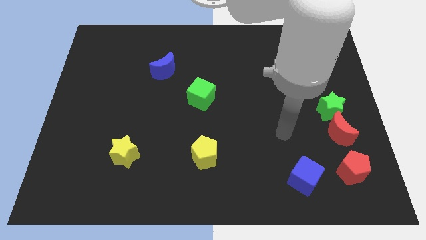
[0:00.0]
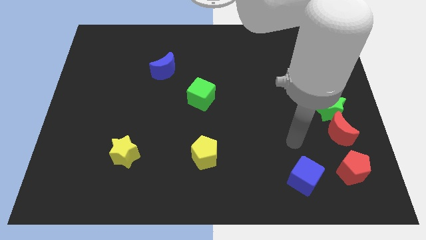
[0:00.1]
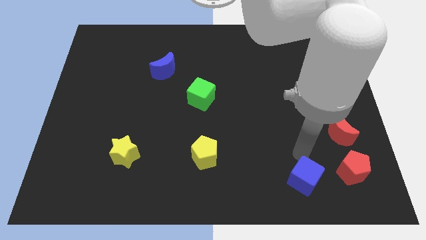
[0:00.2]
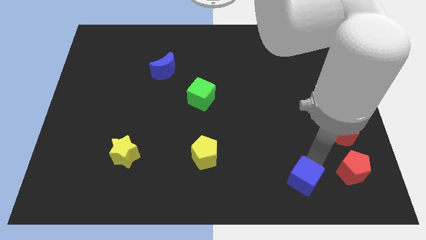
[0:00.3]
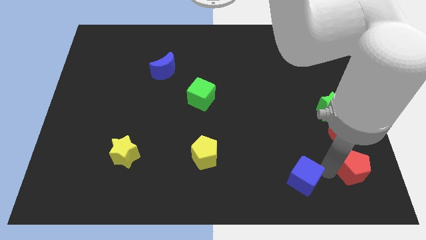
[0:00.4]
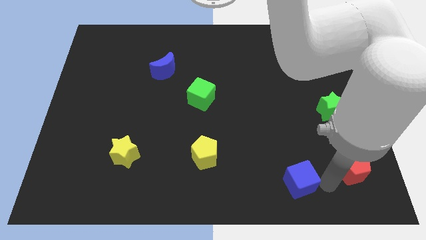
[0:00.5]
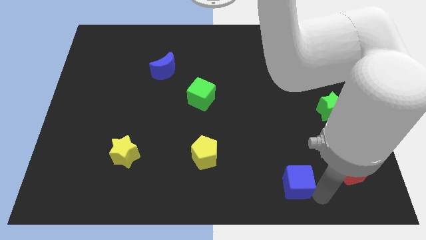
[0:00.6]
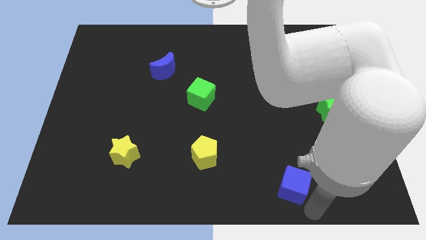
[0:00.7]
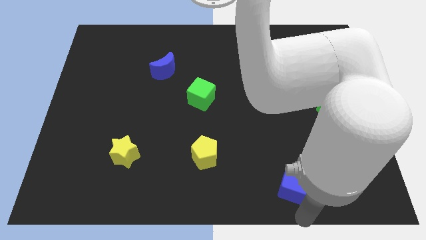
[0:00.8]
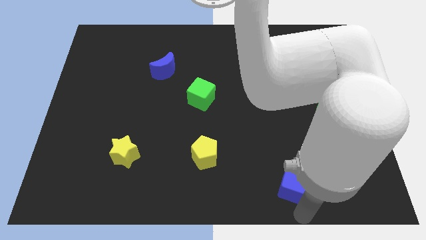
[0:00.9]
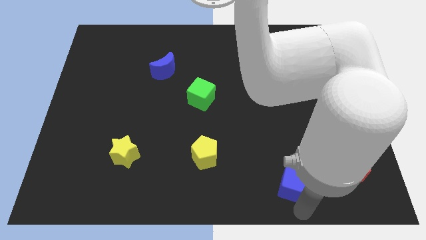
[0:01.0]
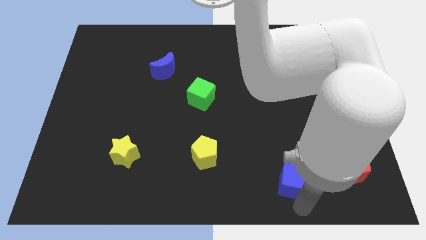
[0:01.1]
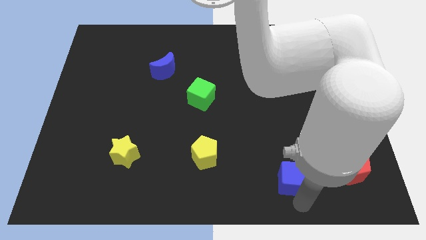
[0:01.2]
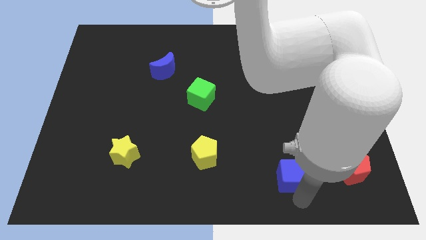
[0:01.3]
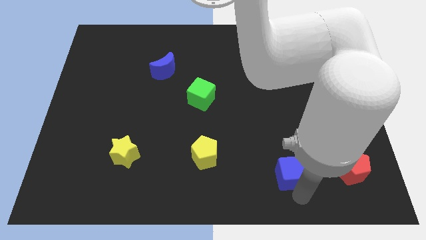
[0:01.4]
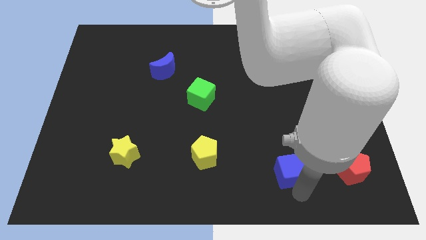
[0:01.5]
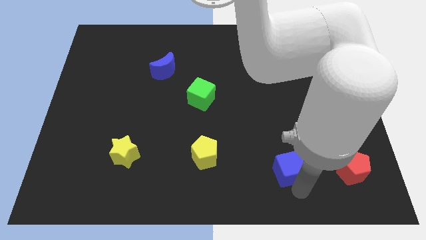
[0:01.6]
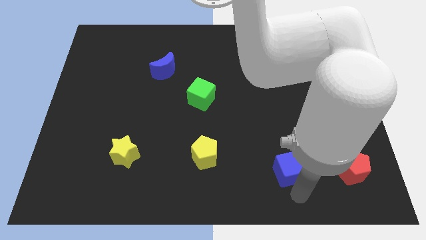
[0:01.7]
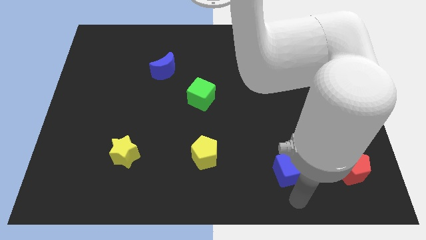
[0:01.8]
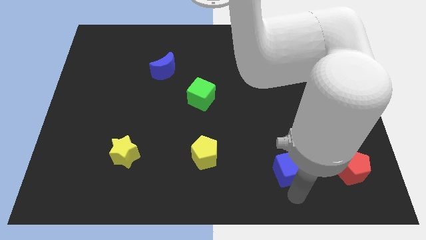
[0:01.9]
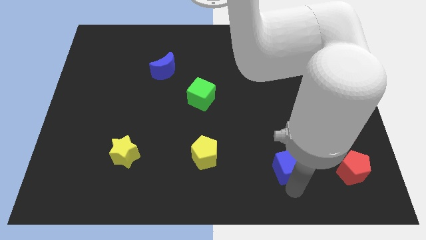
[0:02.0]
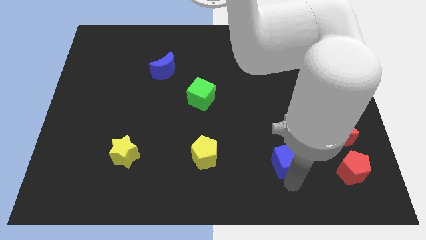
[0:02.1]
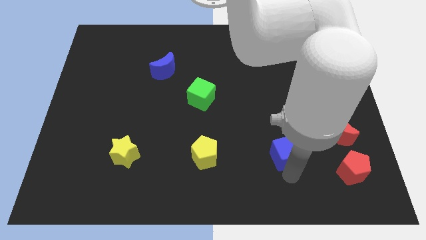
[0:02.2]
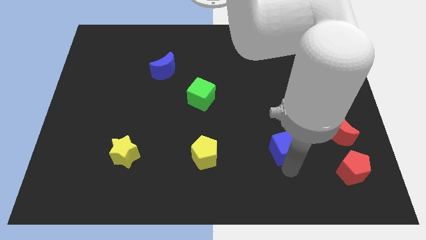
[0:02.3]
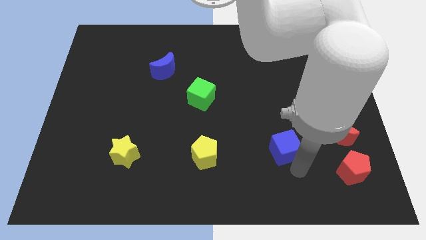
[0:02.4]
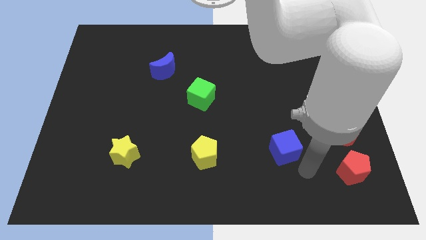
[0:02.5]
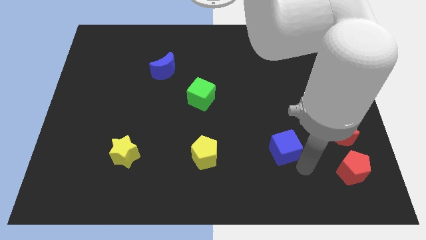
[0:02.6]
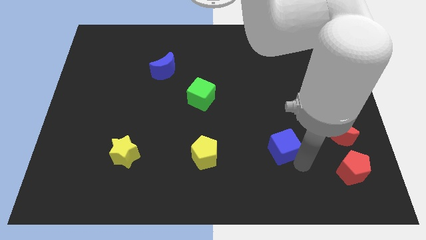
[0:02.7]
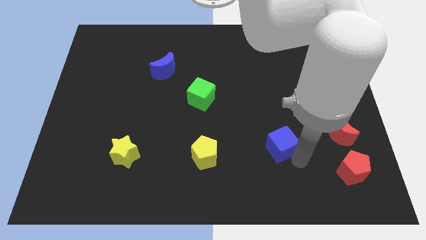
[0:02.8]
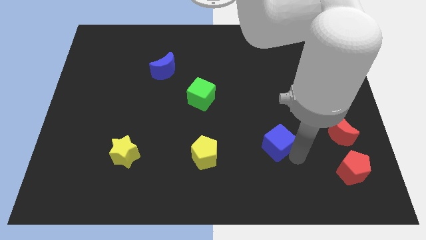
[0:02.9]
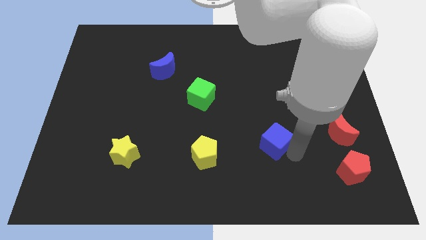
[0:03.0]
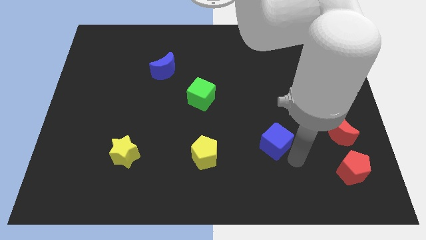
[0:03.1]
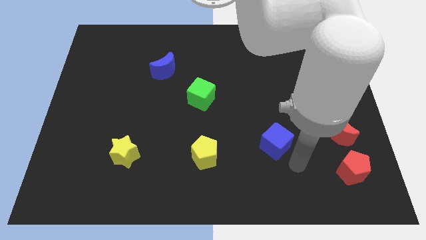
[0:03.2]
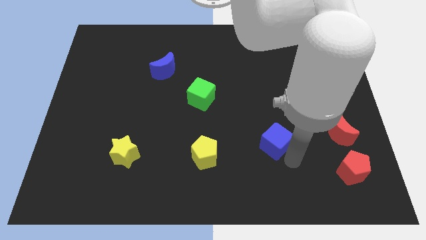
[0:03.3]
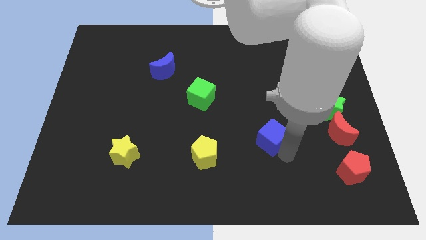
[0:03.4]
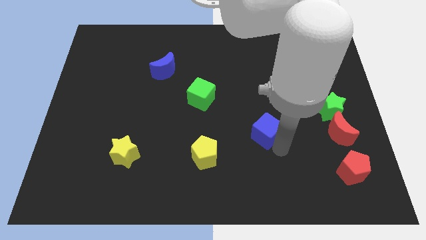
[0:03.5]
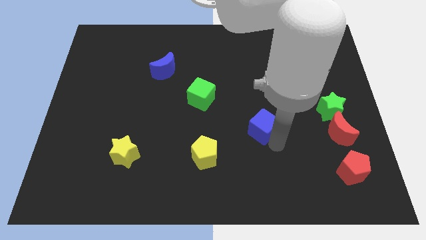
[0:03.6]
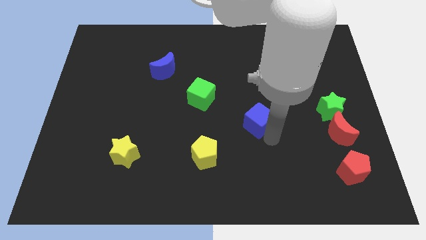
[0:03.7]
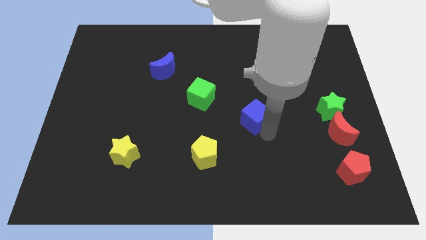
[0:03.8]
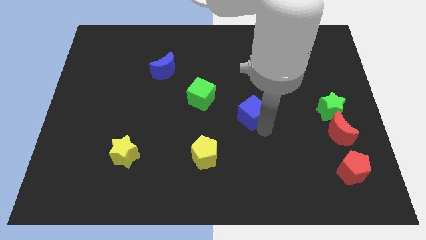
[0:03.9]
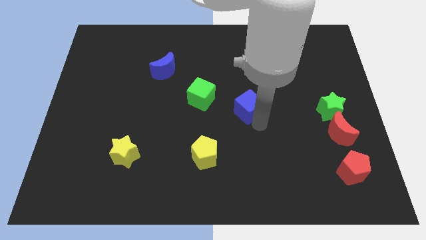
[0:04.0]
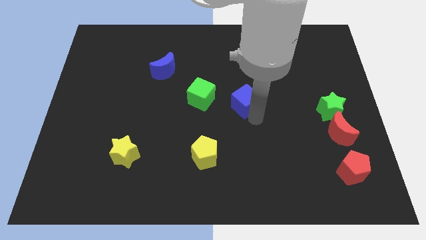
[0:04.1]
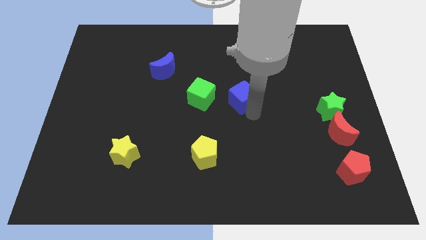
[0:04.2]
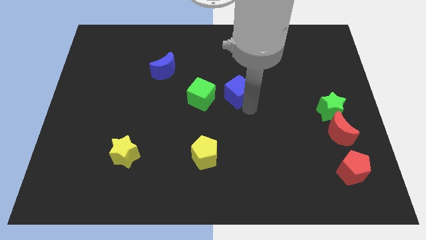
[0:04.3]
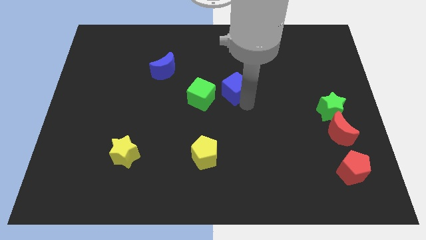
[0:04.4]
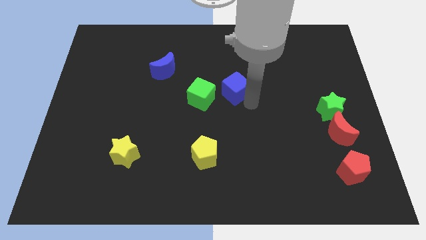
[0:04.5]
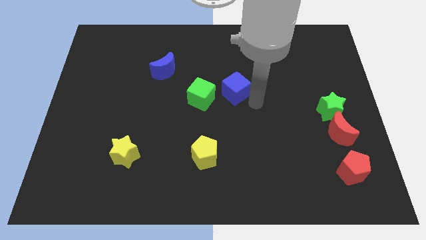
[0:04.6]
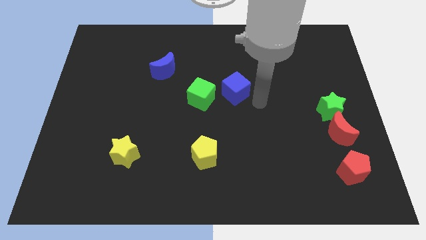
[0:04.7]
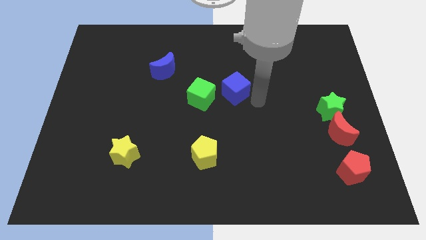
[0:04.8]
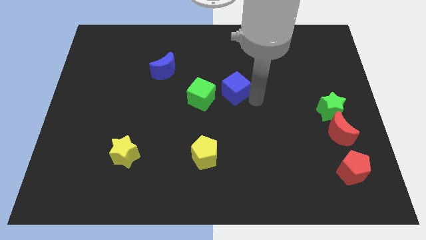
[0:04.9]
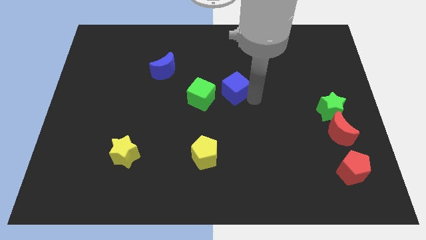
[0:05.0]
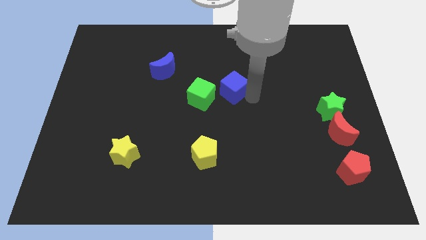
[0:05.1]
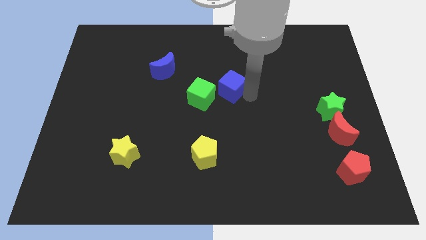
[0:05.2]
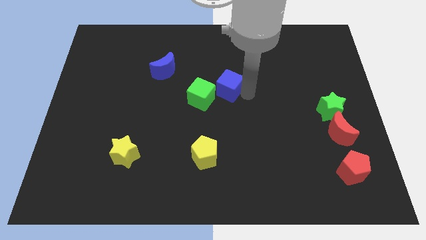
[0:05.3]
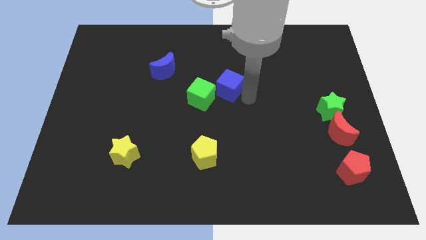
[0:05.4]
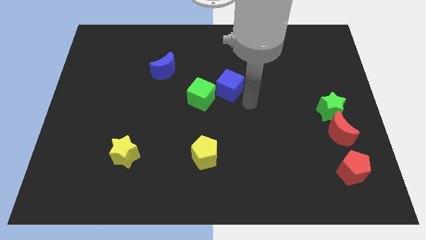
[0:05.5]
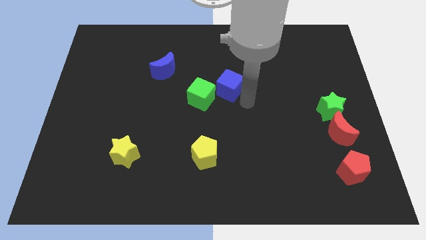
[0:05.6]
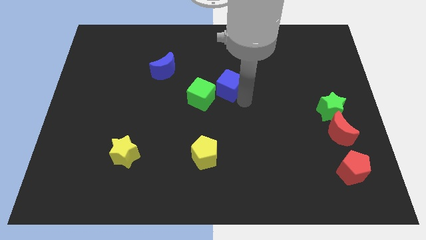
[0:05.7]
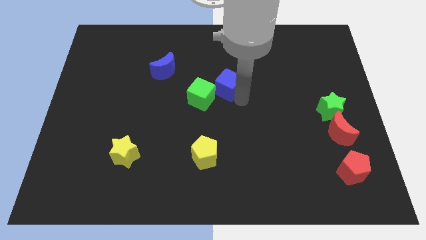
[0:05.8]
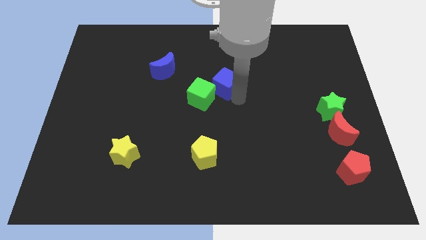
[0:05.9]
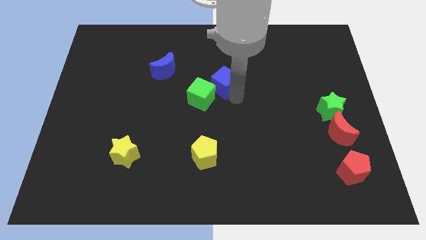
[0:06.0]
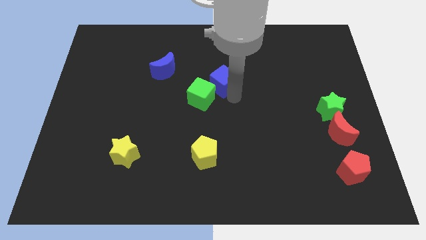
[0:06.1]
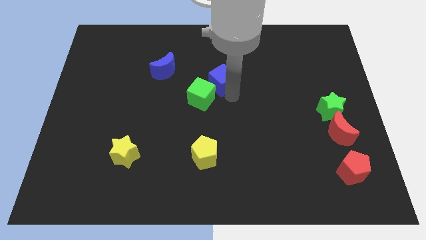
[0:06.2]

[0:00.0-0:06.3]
push the blue cube to the top side of the green cube

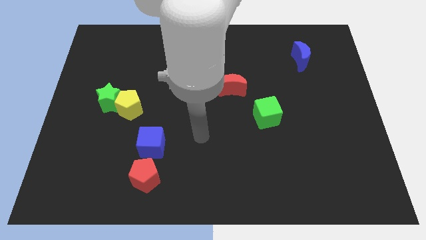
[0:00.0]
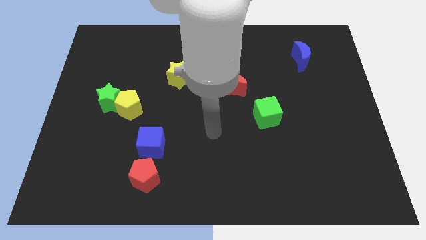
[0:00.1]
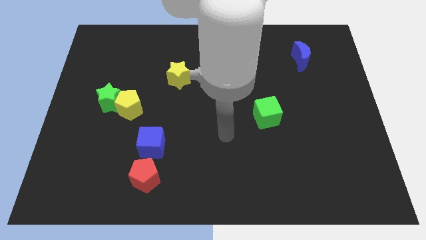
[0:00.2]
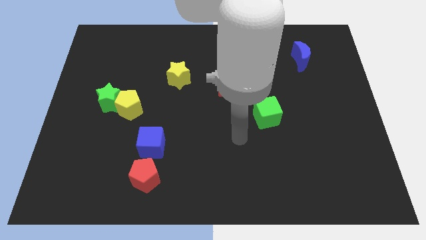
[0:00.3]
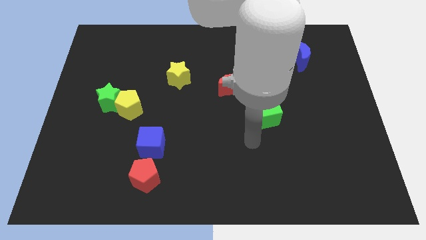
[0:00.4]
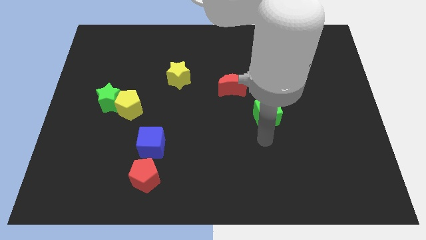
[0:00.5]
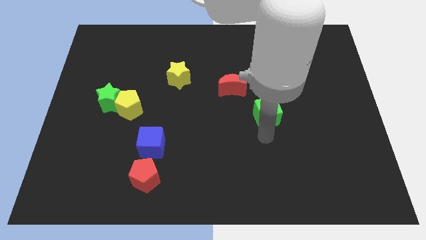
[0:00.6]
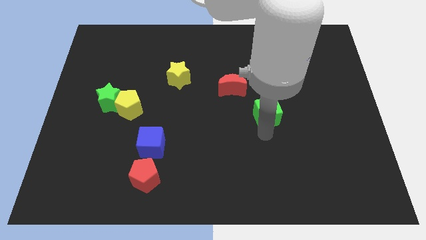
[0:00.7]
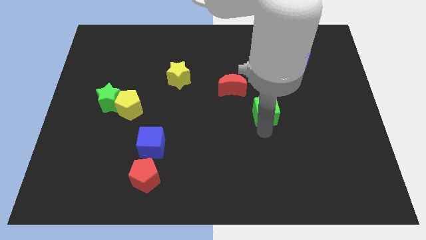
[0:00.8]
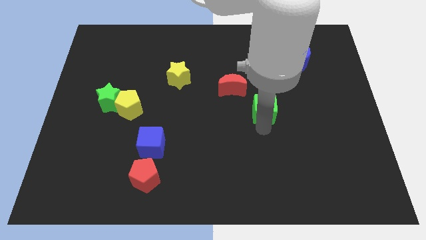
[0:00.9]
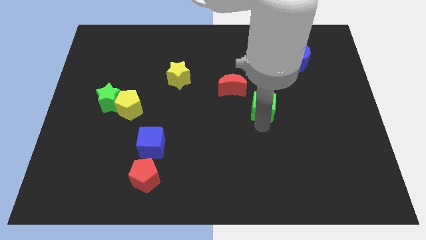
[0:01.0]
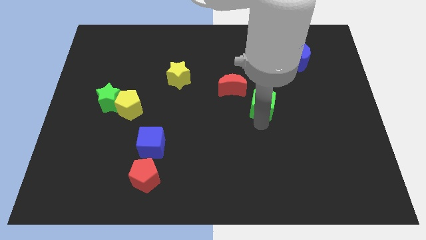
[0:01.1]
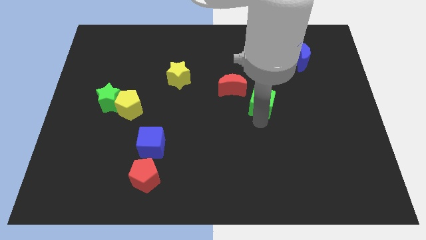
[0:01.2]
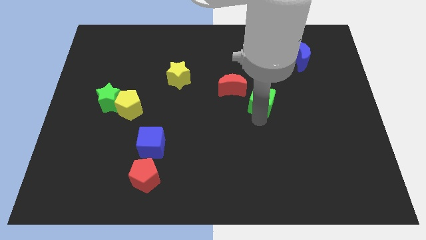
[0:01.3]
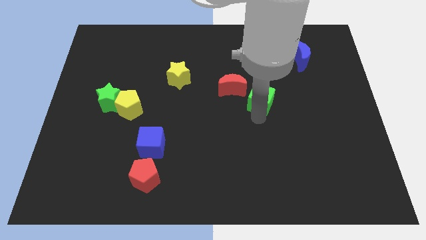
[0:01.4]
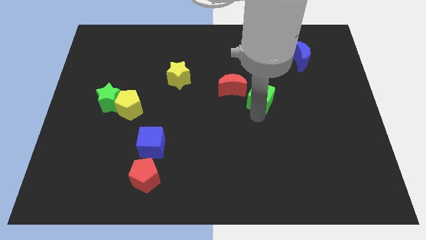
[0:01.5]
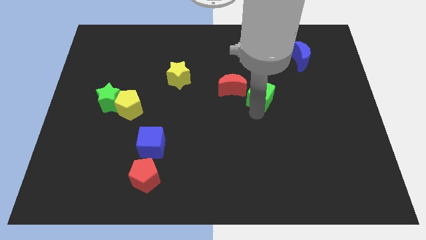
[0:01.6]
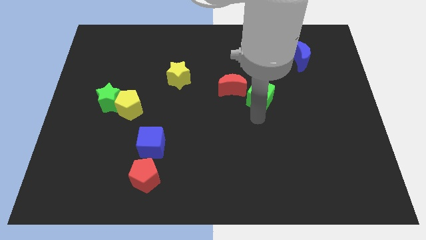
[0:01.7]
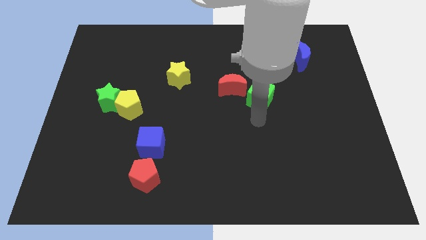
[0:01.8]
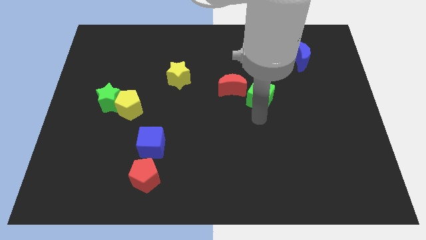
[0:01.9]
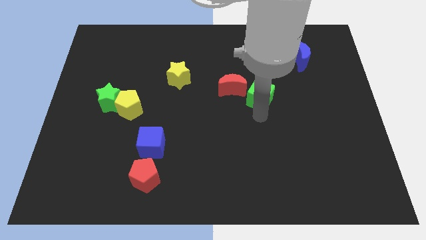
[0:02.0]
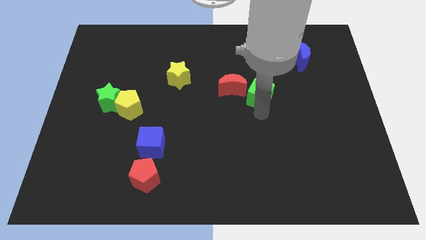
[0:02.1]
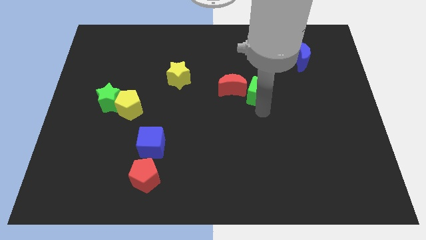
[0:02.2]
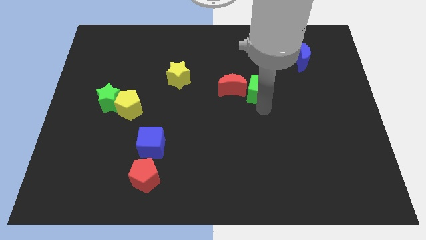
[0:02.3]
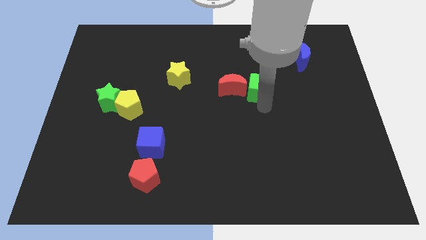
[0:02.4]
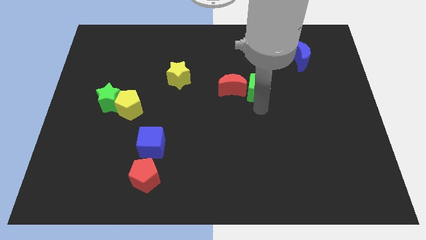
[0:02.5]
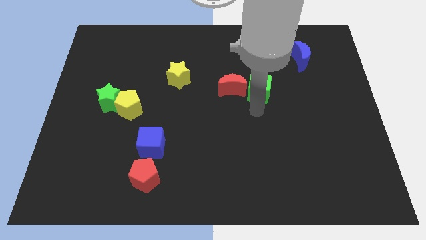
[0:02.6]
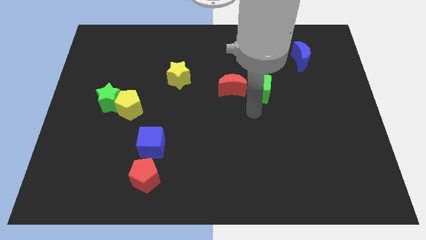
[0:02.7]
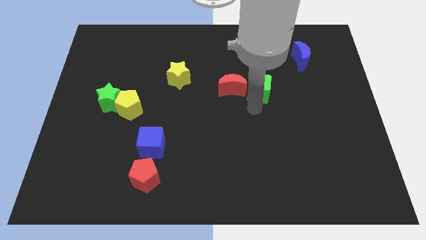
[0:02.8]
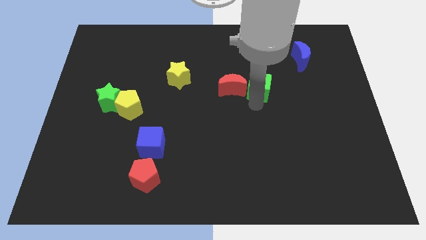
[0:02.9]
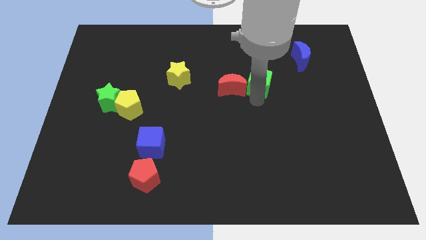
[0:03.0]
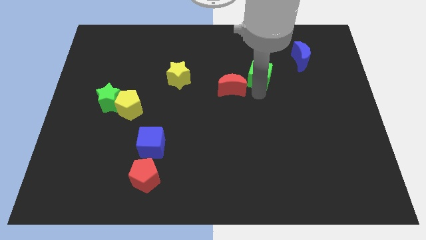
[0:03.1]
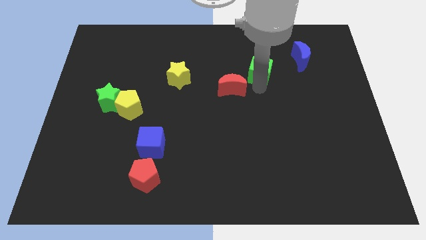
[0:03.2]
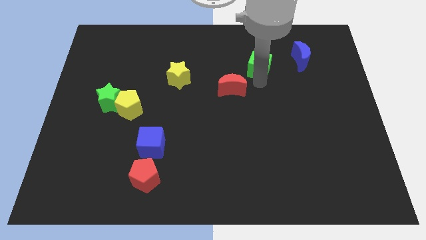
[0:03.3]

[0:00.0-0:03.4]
push the green cube to the left of the blue moon
